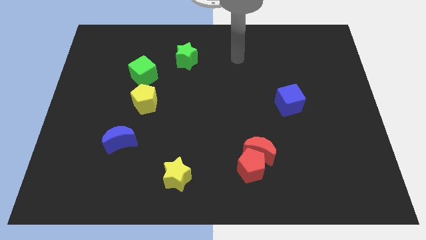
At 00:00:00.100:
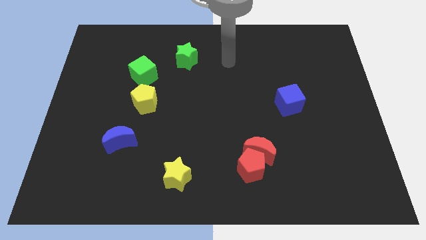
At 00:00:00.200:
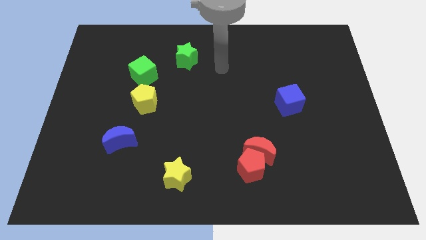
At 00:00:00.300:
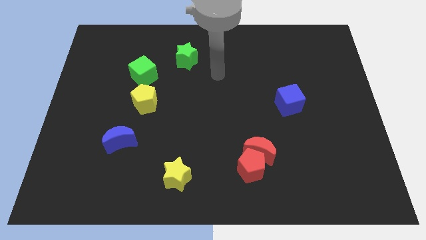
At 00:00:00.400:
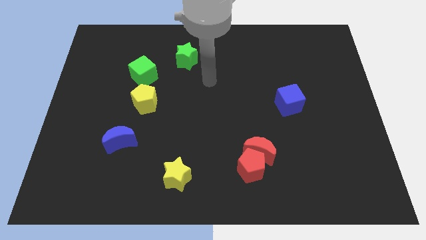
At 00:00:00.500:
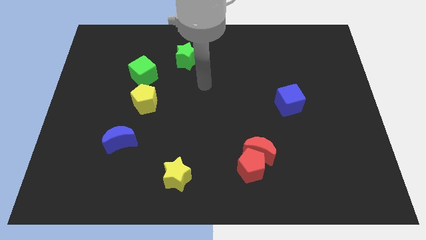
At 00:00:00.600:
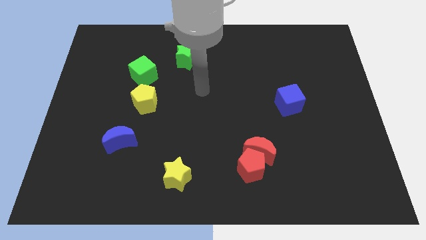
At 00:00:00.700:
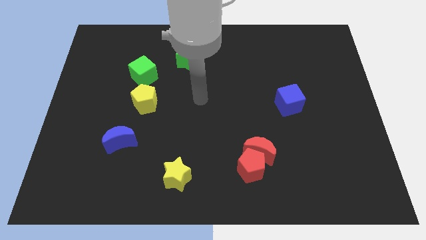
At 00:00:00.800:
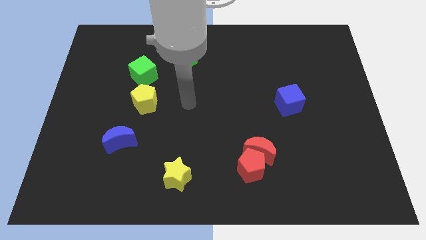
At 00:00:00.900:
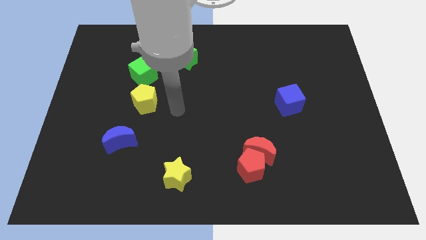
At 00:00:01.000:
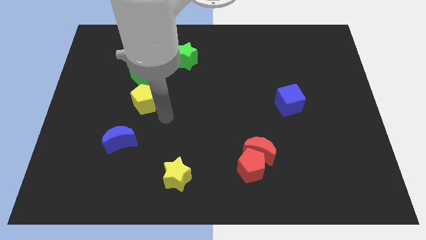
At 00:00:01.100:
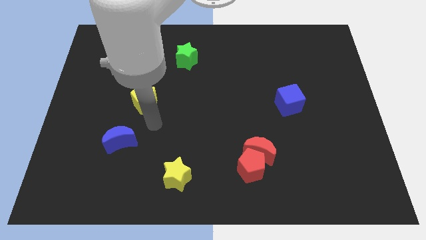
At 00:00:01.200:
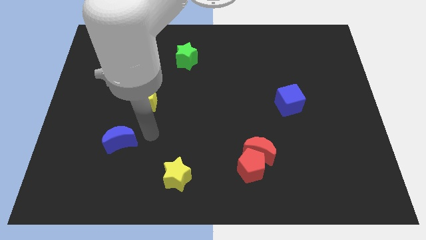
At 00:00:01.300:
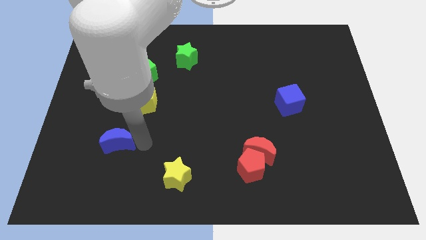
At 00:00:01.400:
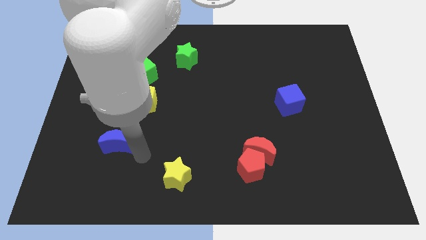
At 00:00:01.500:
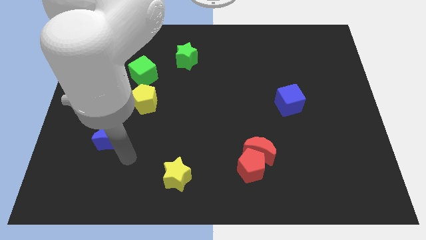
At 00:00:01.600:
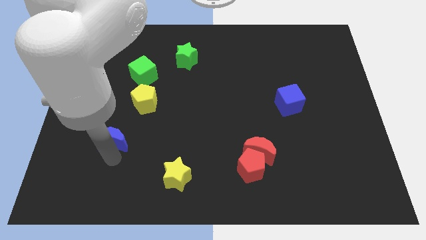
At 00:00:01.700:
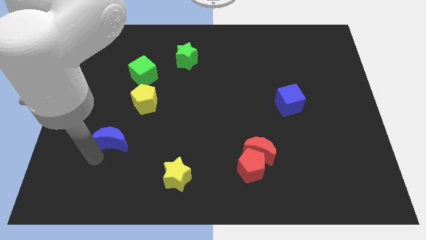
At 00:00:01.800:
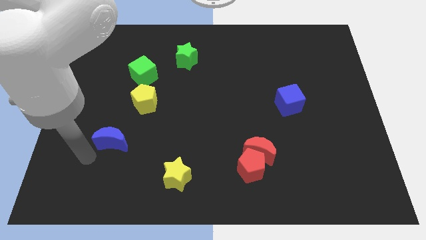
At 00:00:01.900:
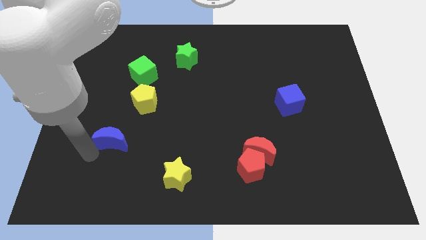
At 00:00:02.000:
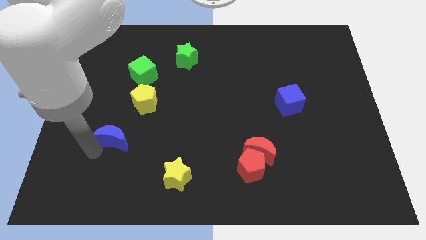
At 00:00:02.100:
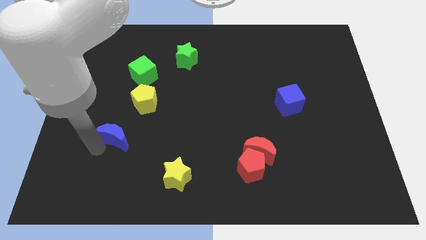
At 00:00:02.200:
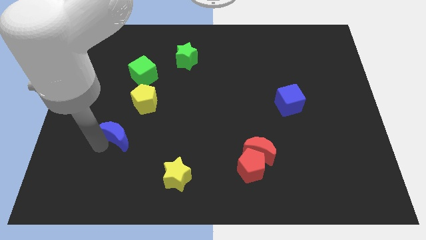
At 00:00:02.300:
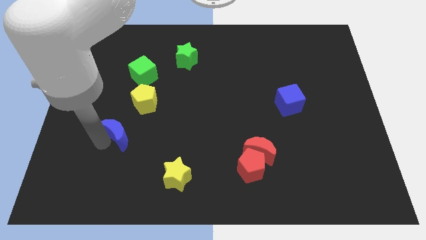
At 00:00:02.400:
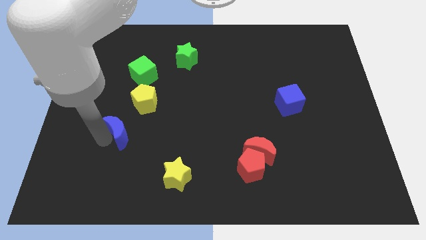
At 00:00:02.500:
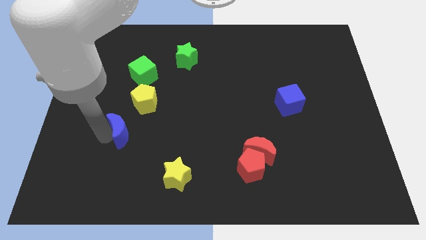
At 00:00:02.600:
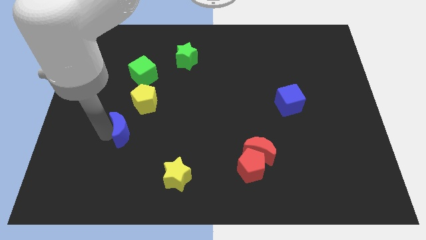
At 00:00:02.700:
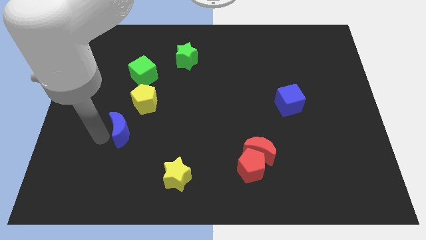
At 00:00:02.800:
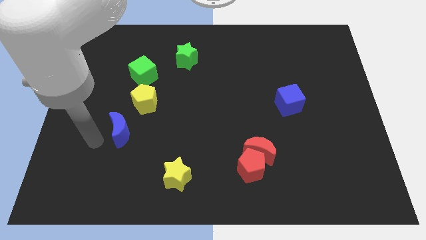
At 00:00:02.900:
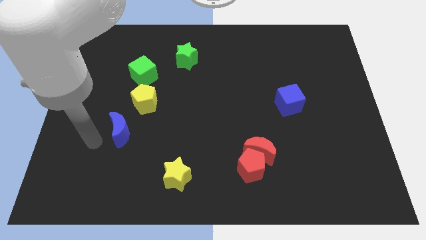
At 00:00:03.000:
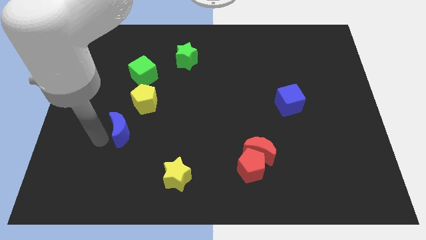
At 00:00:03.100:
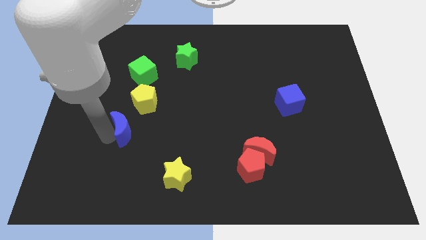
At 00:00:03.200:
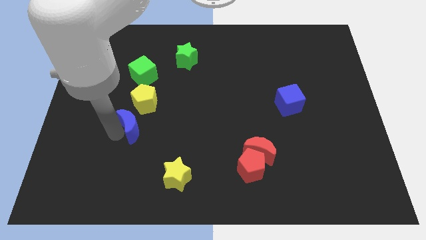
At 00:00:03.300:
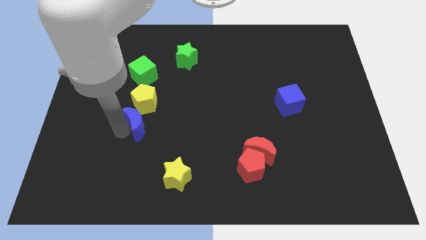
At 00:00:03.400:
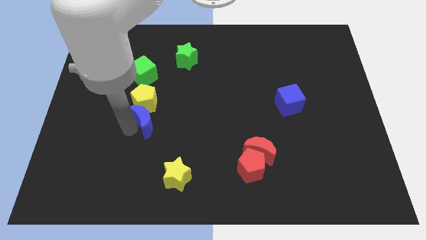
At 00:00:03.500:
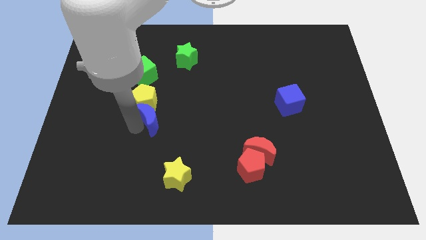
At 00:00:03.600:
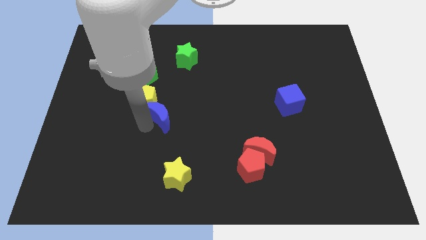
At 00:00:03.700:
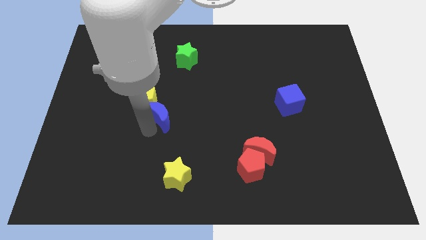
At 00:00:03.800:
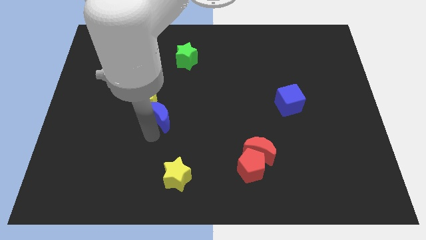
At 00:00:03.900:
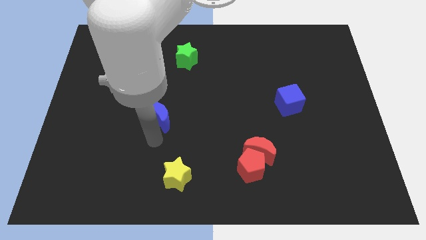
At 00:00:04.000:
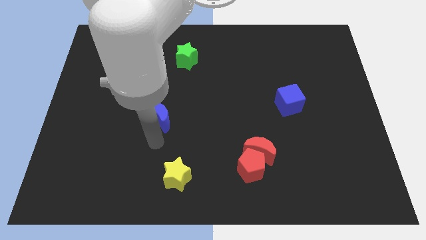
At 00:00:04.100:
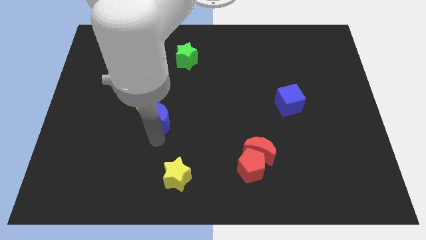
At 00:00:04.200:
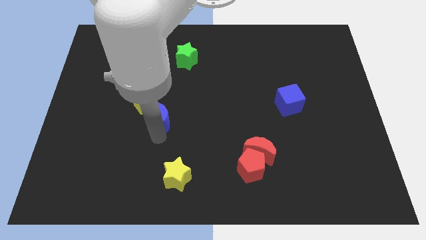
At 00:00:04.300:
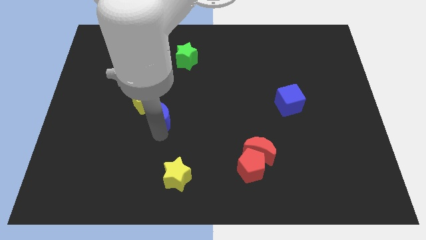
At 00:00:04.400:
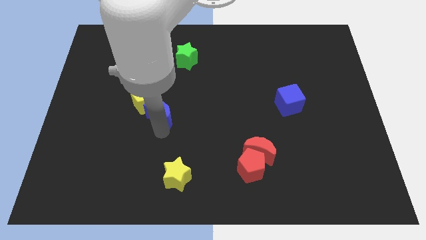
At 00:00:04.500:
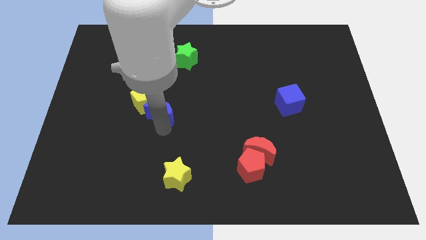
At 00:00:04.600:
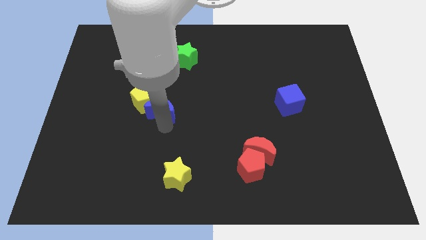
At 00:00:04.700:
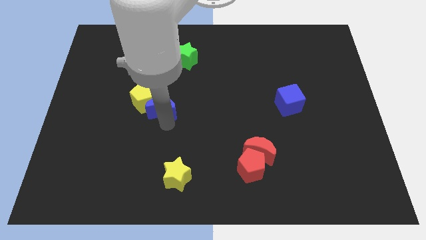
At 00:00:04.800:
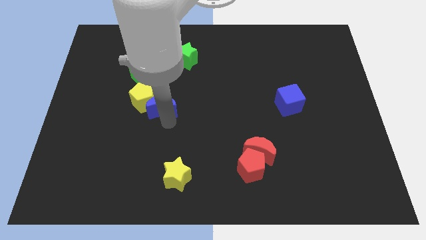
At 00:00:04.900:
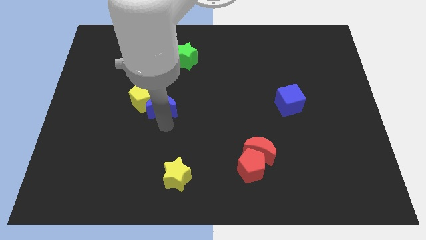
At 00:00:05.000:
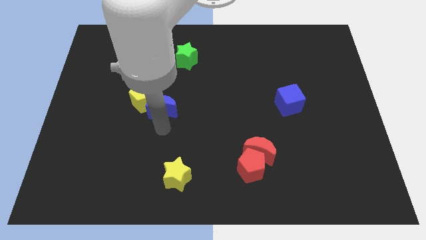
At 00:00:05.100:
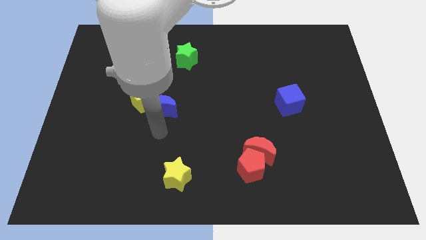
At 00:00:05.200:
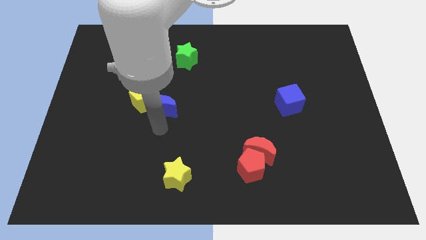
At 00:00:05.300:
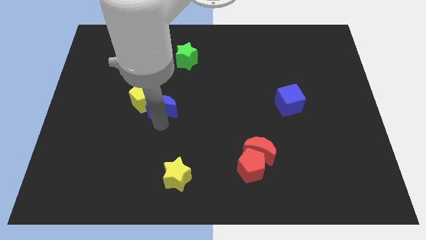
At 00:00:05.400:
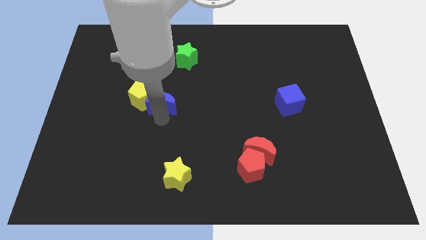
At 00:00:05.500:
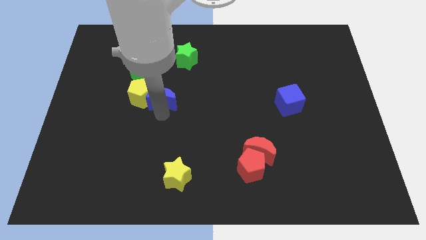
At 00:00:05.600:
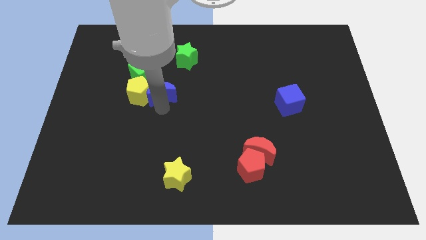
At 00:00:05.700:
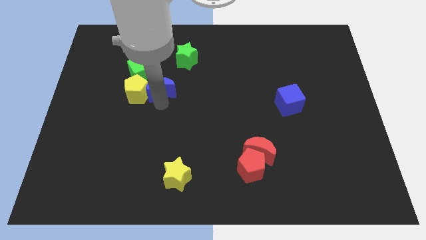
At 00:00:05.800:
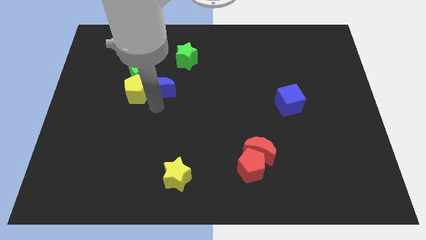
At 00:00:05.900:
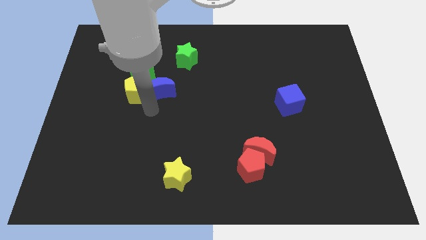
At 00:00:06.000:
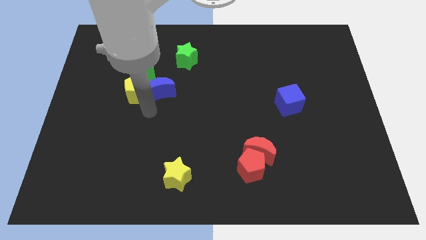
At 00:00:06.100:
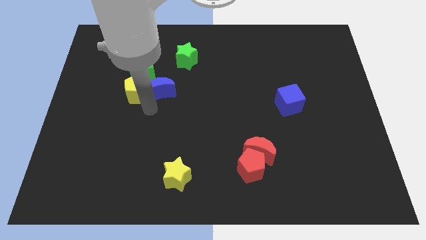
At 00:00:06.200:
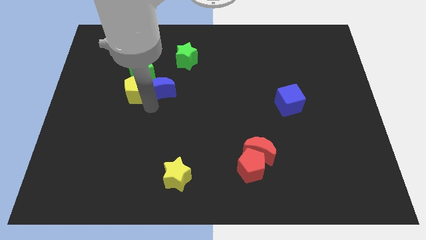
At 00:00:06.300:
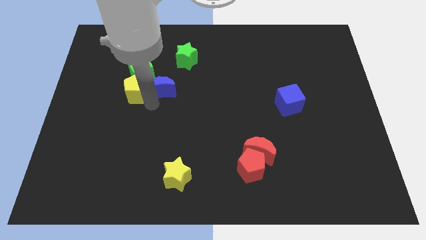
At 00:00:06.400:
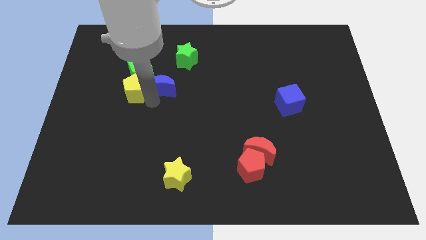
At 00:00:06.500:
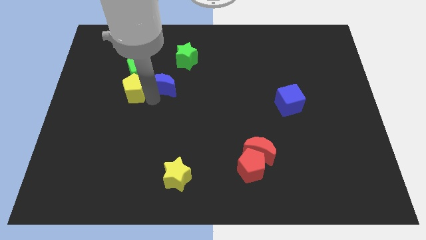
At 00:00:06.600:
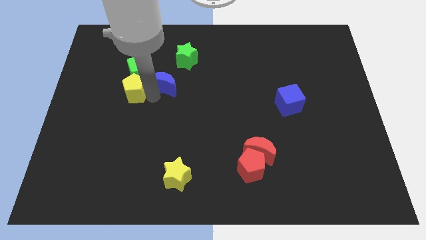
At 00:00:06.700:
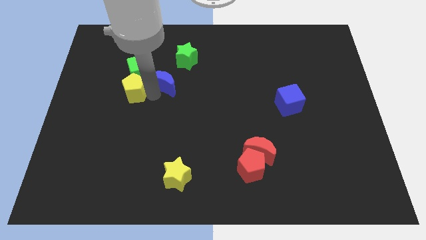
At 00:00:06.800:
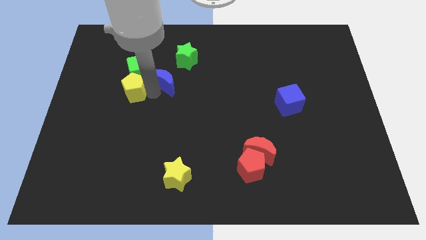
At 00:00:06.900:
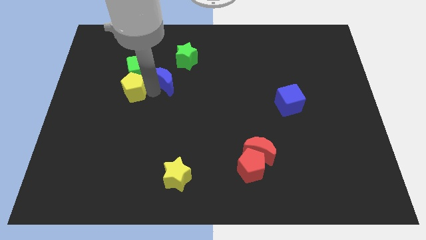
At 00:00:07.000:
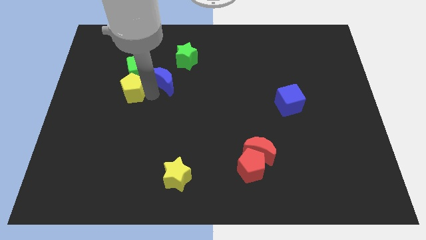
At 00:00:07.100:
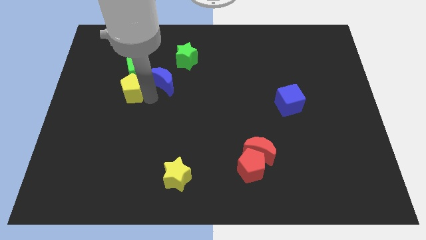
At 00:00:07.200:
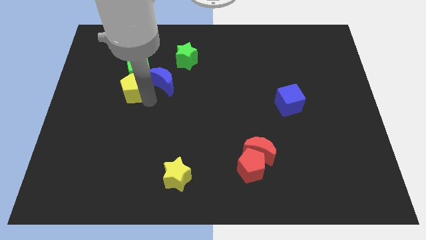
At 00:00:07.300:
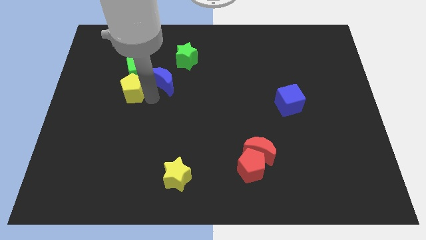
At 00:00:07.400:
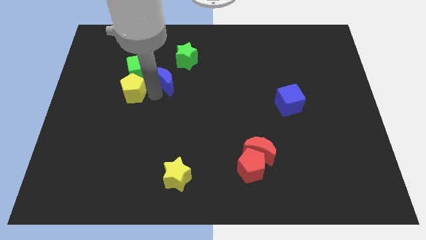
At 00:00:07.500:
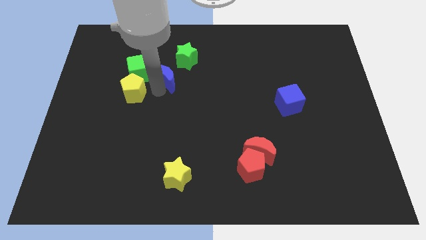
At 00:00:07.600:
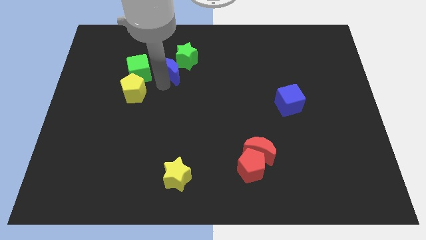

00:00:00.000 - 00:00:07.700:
put the blue moon to the green star
